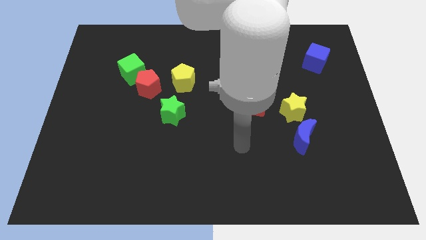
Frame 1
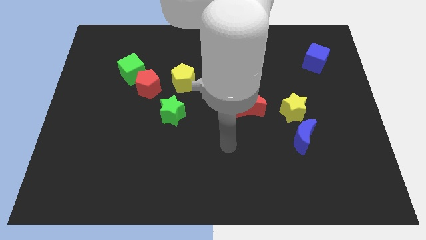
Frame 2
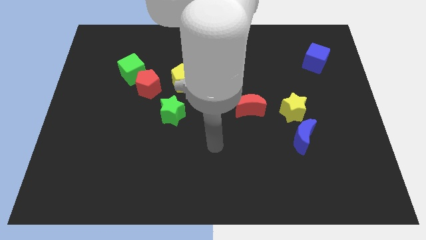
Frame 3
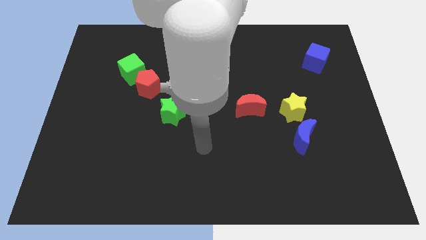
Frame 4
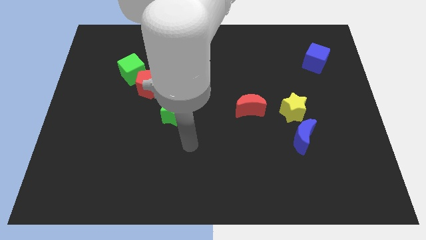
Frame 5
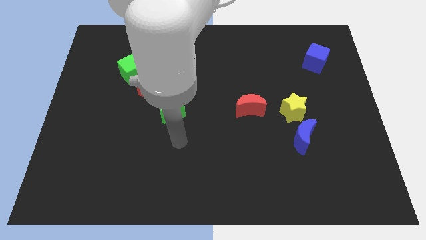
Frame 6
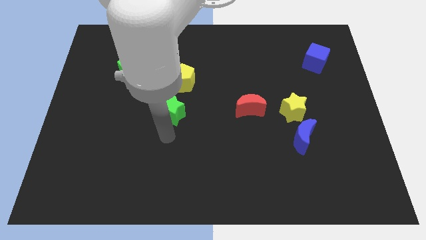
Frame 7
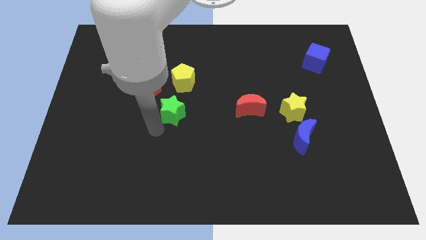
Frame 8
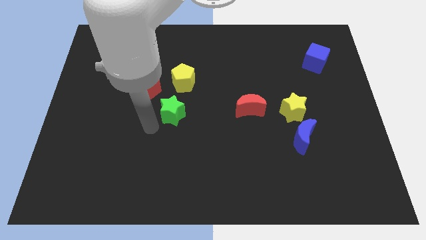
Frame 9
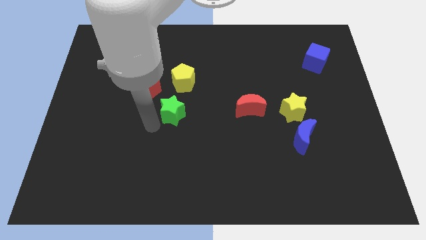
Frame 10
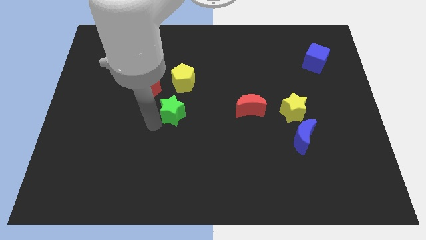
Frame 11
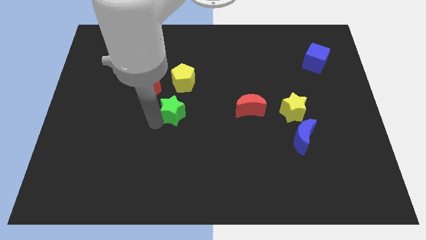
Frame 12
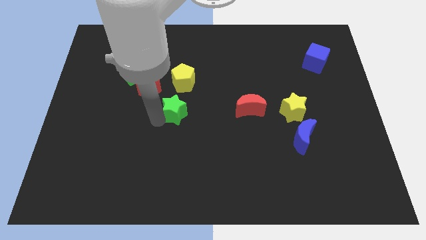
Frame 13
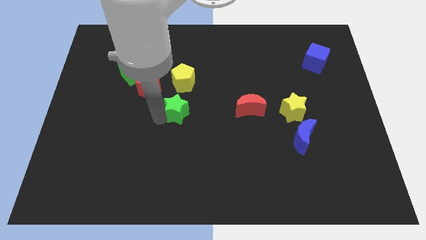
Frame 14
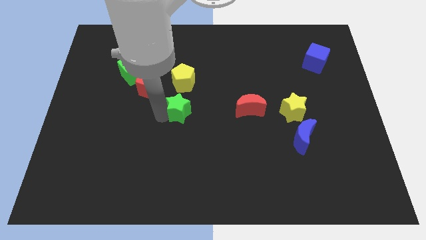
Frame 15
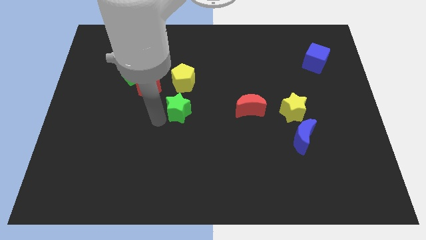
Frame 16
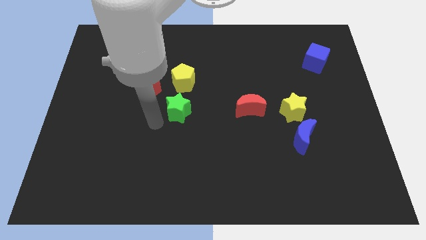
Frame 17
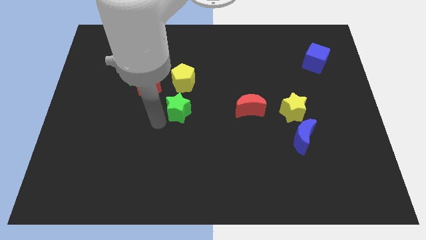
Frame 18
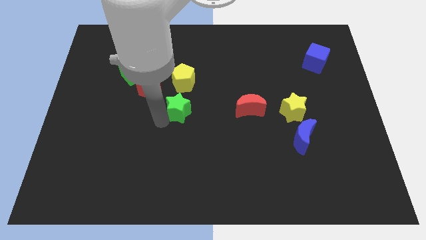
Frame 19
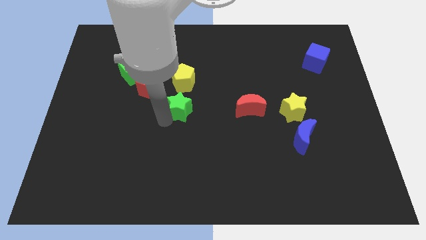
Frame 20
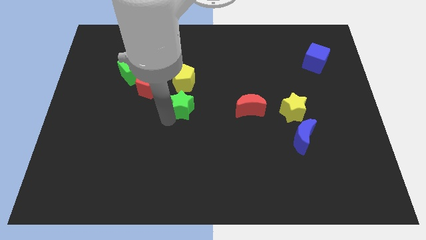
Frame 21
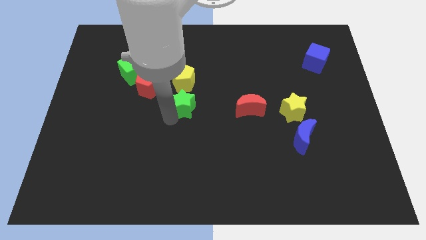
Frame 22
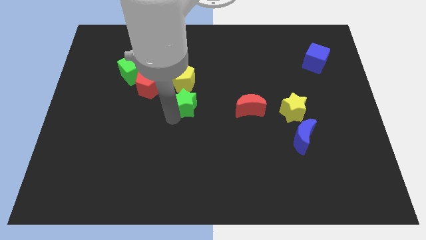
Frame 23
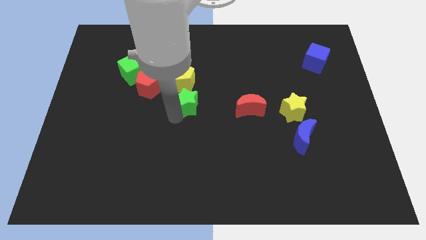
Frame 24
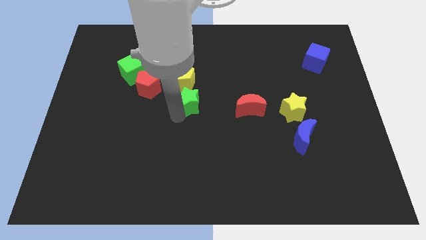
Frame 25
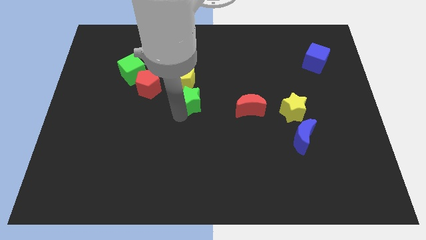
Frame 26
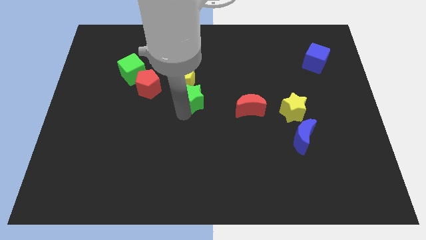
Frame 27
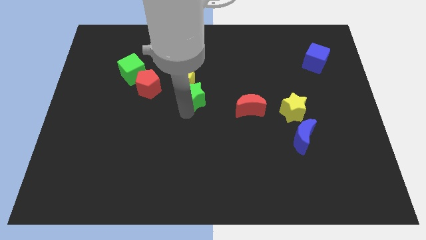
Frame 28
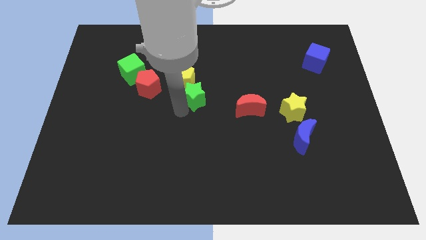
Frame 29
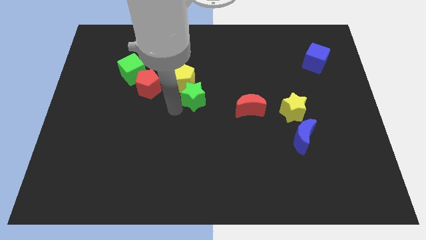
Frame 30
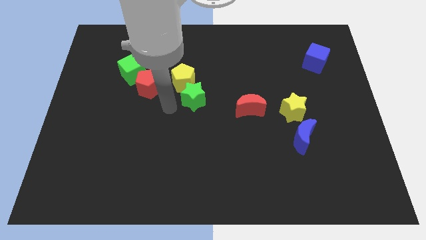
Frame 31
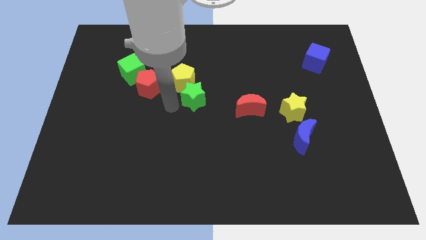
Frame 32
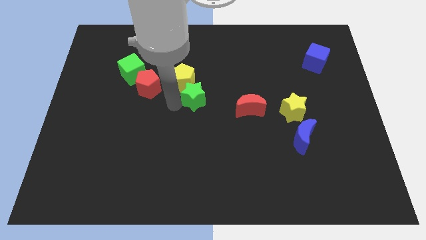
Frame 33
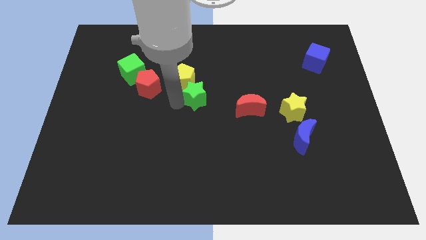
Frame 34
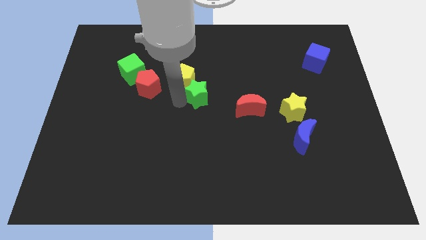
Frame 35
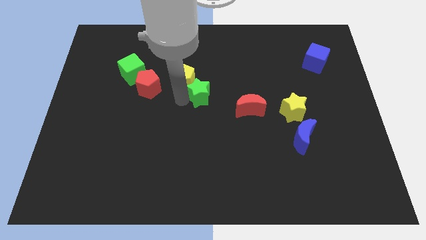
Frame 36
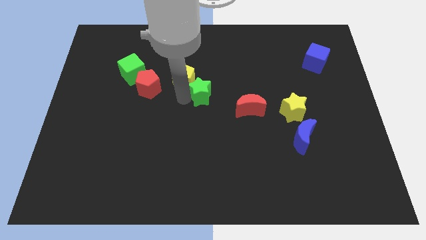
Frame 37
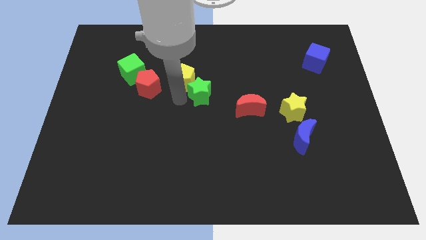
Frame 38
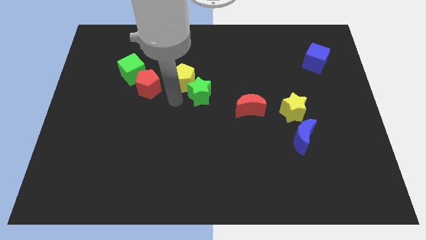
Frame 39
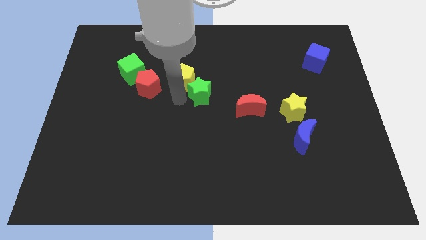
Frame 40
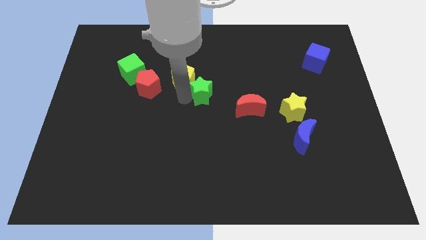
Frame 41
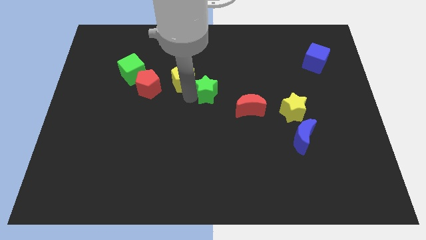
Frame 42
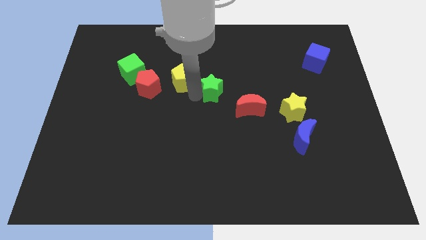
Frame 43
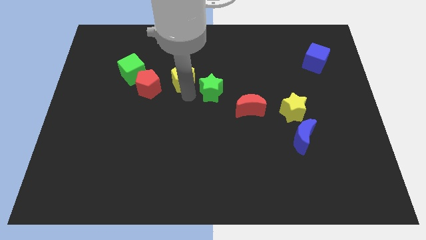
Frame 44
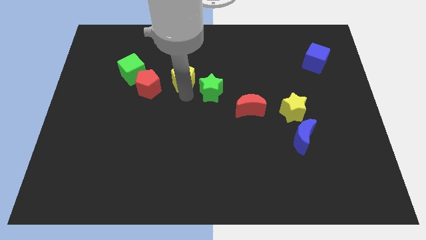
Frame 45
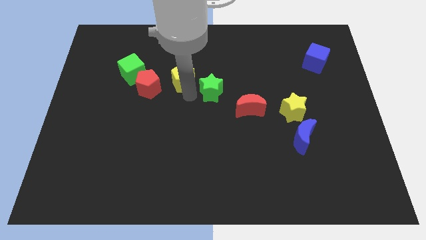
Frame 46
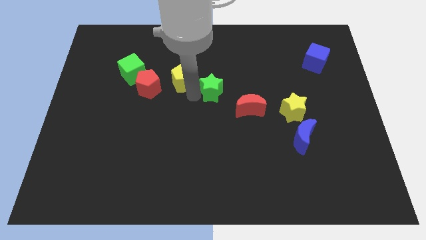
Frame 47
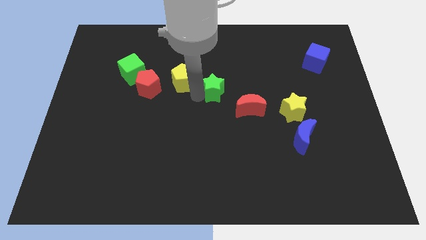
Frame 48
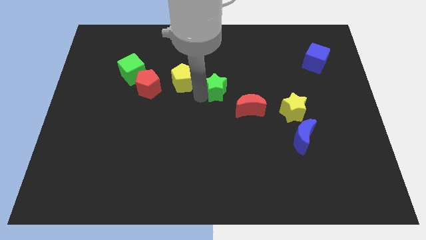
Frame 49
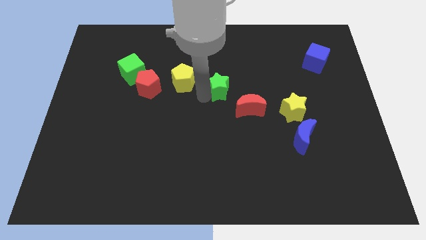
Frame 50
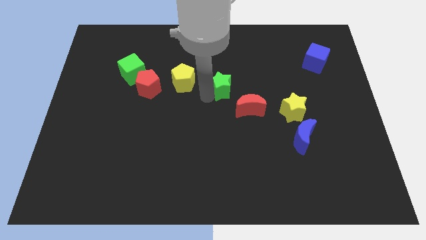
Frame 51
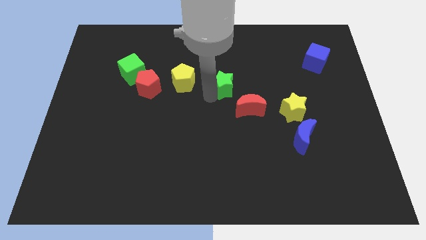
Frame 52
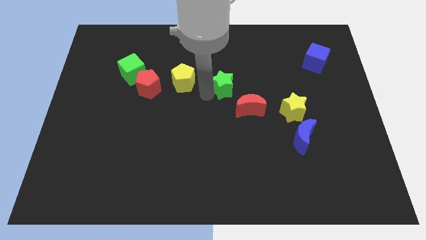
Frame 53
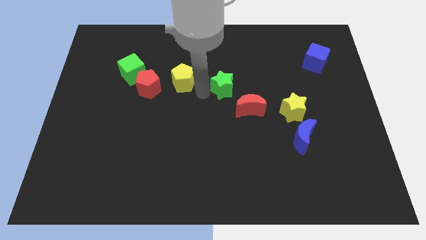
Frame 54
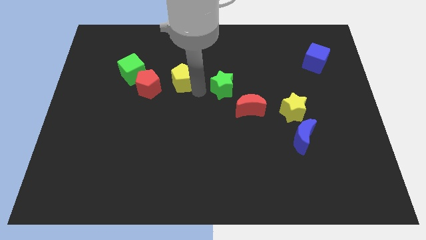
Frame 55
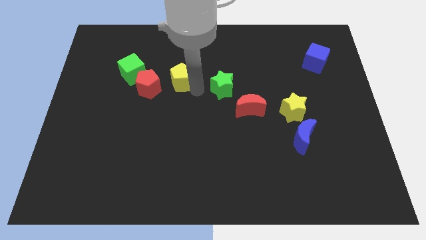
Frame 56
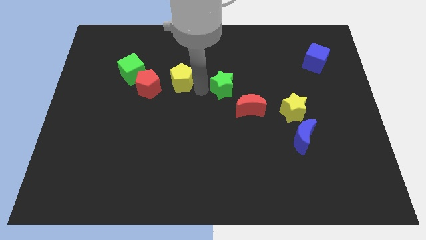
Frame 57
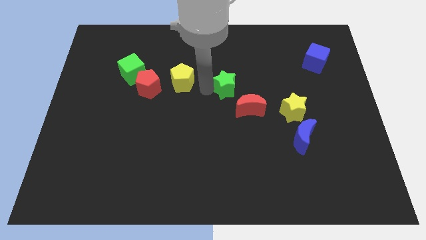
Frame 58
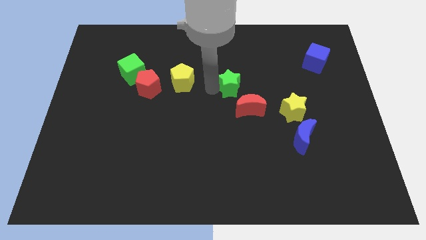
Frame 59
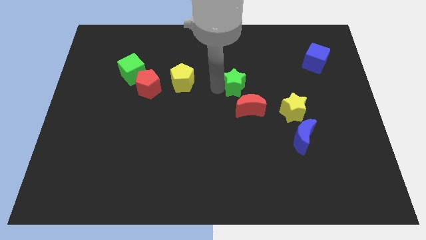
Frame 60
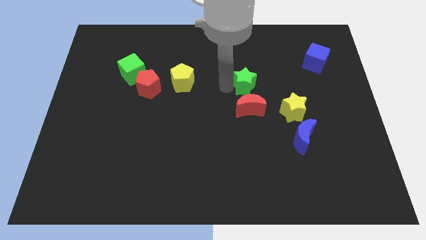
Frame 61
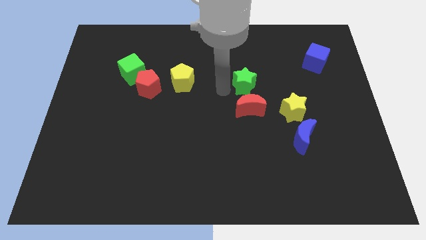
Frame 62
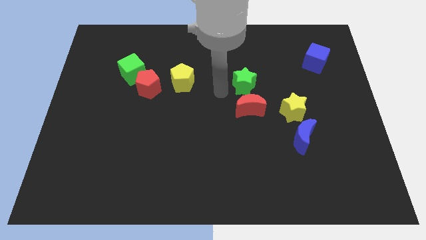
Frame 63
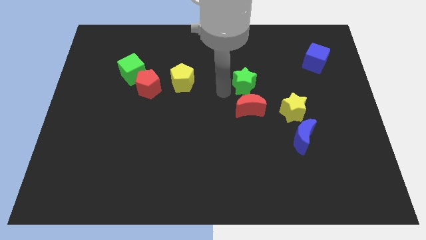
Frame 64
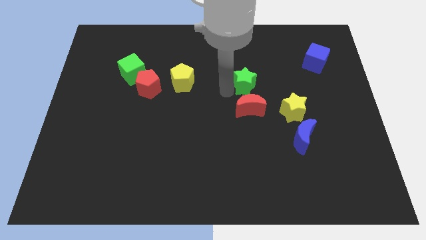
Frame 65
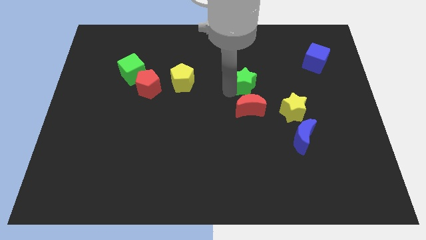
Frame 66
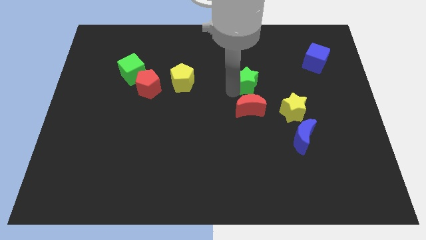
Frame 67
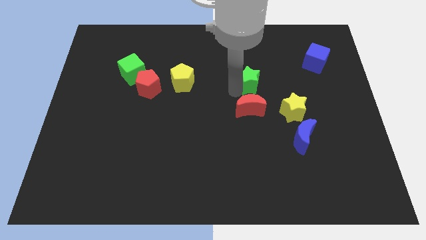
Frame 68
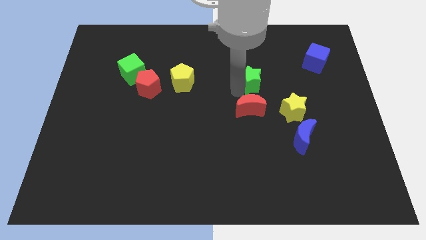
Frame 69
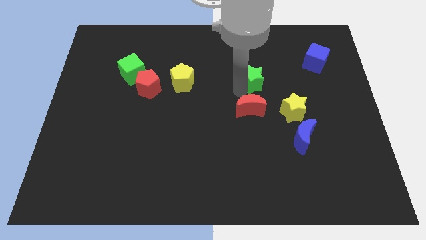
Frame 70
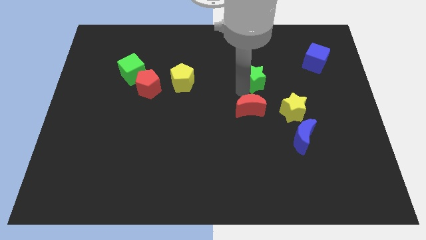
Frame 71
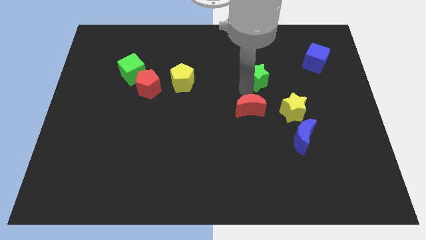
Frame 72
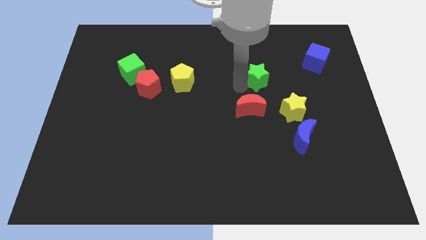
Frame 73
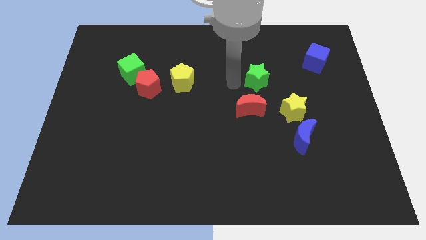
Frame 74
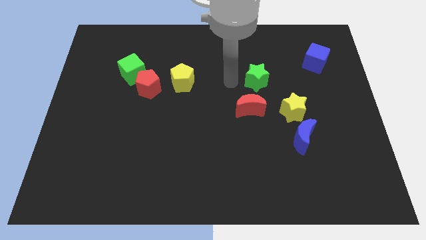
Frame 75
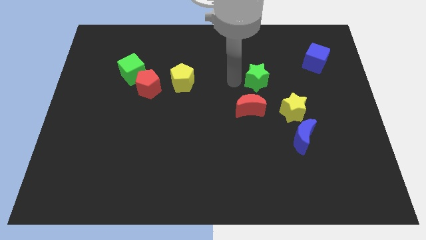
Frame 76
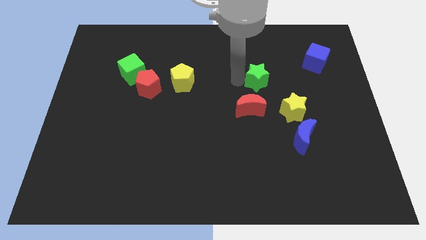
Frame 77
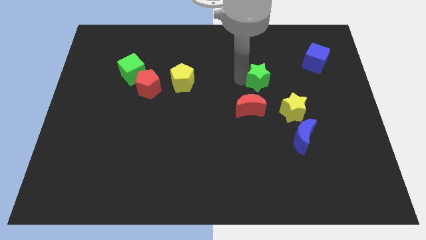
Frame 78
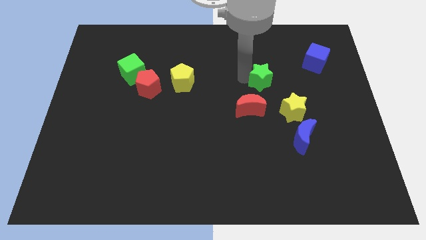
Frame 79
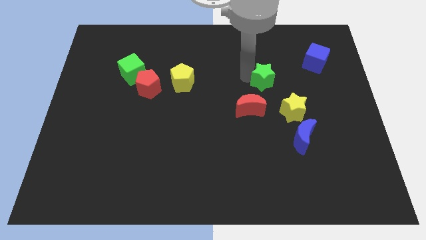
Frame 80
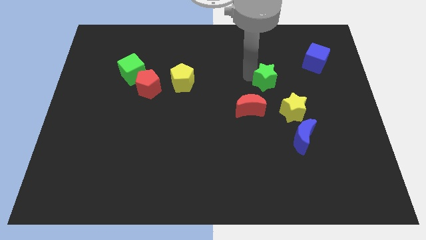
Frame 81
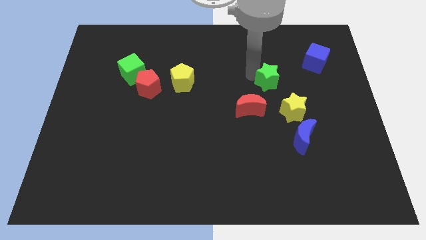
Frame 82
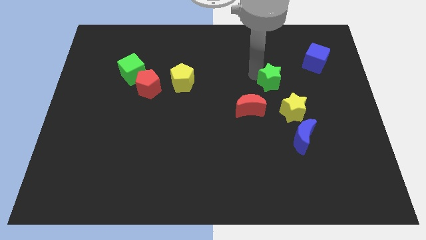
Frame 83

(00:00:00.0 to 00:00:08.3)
push the green star to the top of the yellow star
